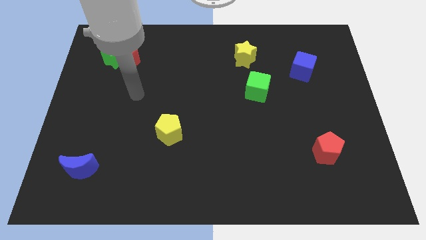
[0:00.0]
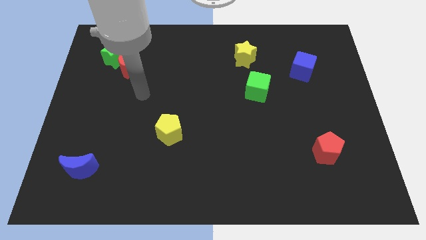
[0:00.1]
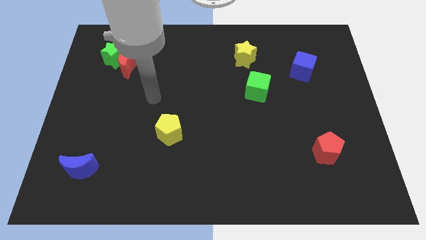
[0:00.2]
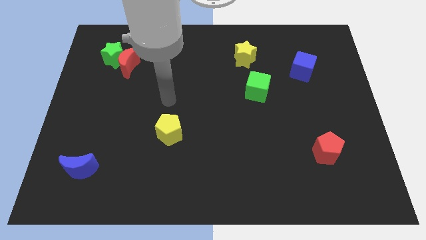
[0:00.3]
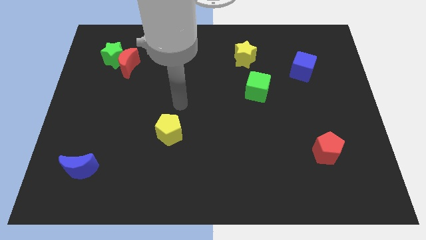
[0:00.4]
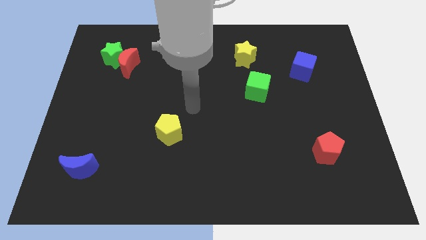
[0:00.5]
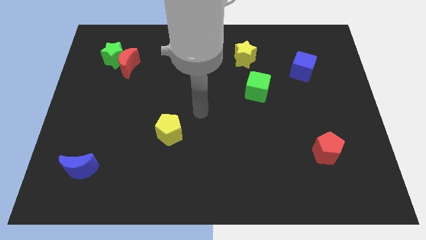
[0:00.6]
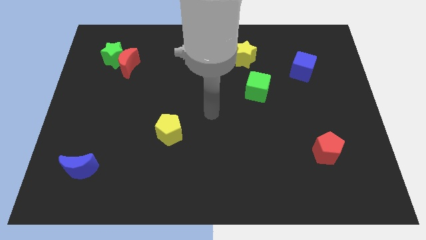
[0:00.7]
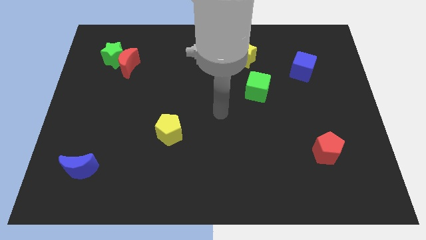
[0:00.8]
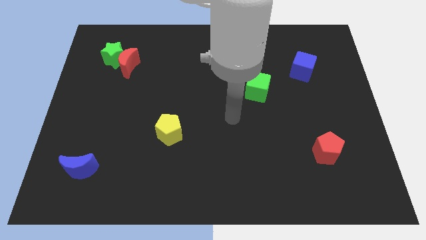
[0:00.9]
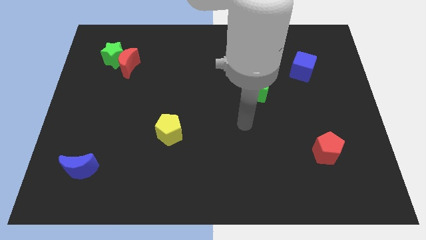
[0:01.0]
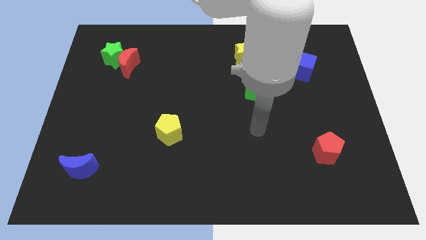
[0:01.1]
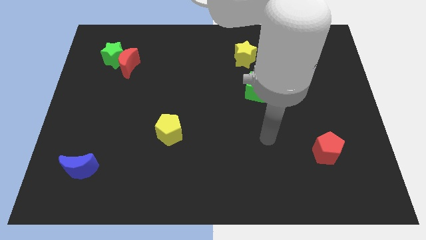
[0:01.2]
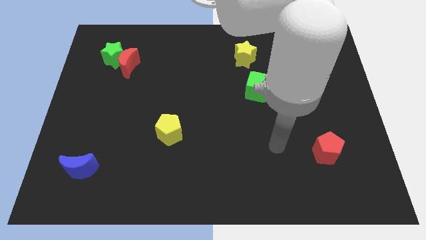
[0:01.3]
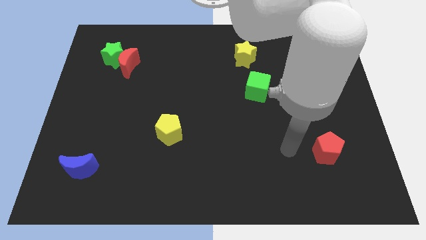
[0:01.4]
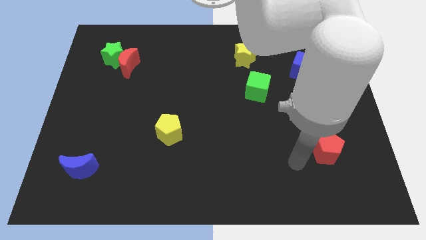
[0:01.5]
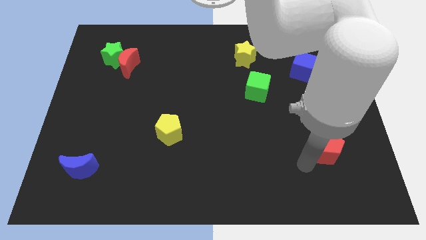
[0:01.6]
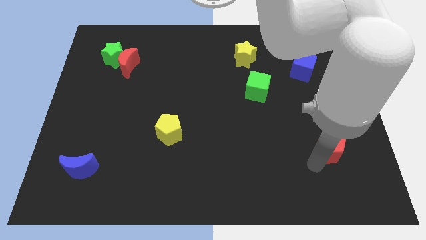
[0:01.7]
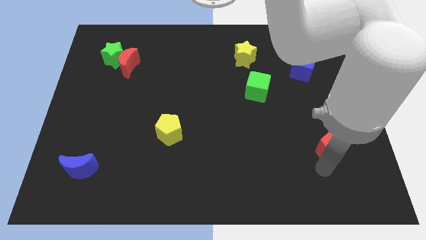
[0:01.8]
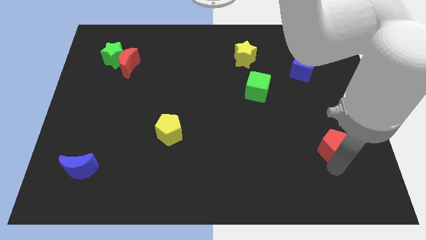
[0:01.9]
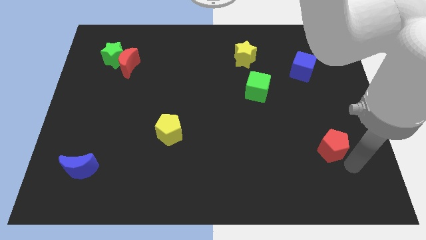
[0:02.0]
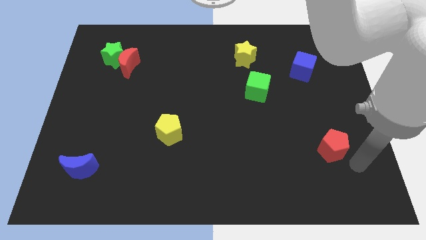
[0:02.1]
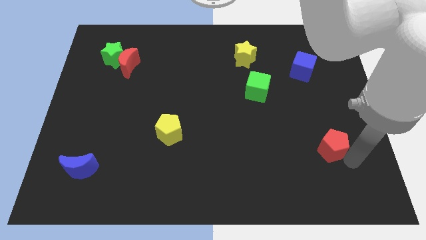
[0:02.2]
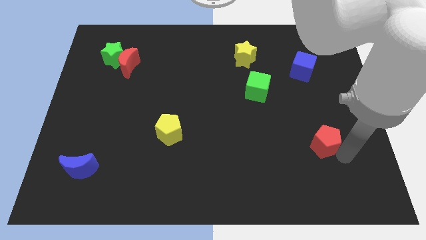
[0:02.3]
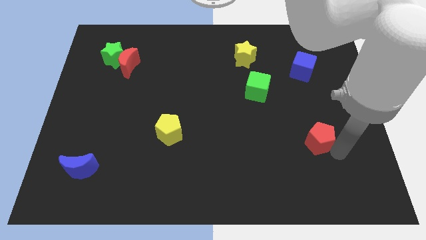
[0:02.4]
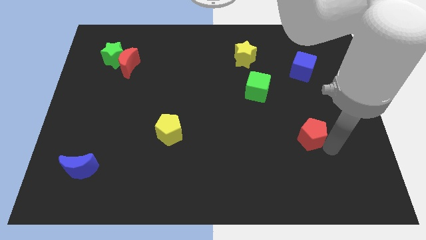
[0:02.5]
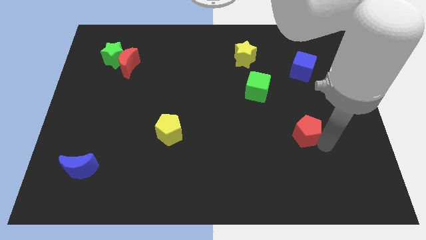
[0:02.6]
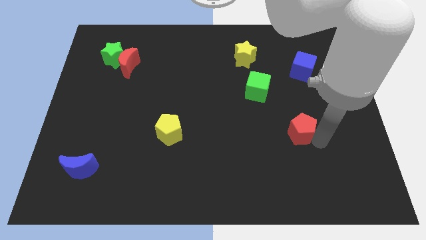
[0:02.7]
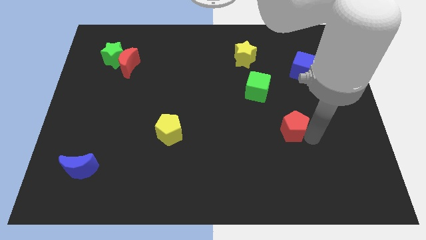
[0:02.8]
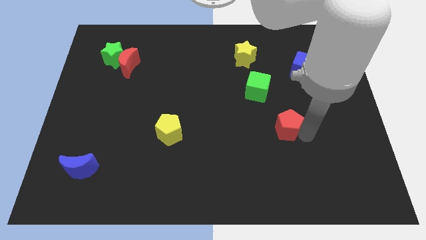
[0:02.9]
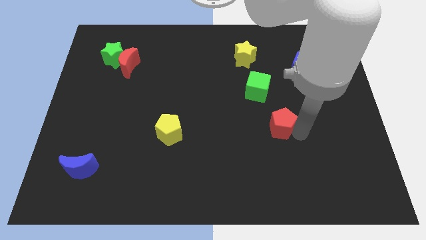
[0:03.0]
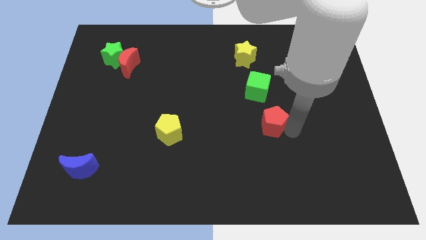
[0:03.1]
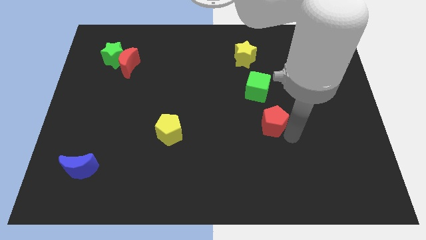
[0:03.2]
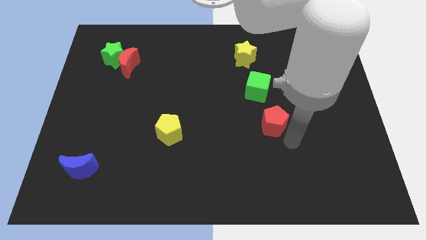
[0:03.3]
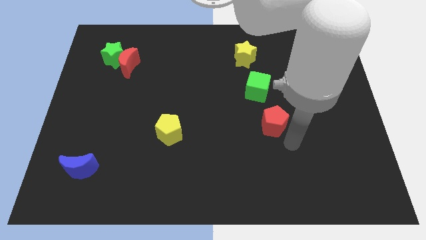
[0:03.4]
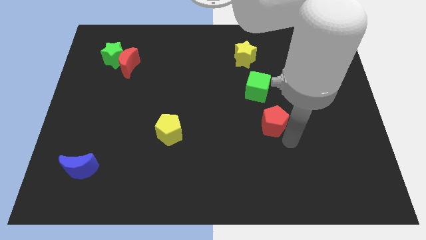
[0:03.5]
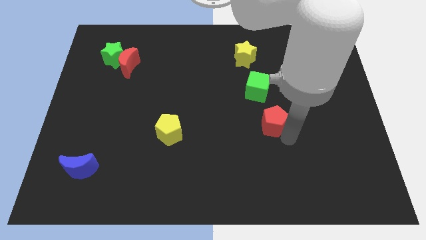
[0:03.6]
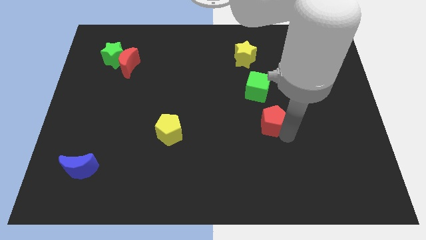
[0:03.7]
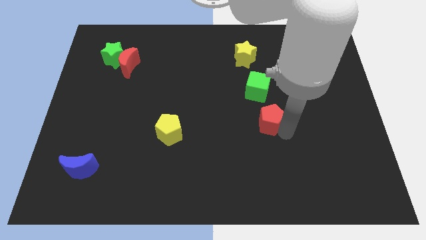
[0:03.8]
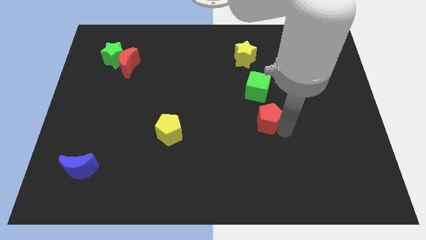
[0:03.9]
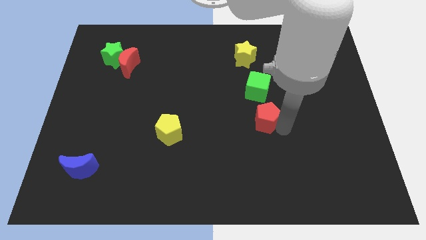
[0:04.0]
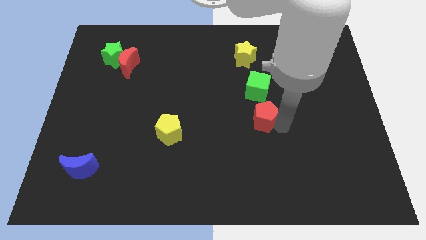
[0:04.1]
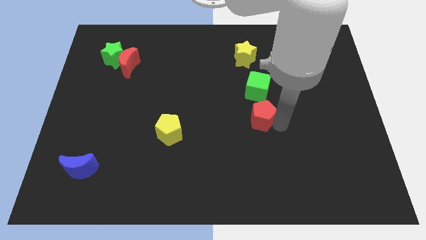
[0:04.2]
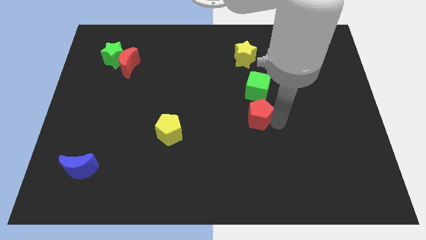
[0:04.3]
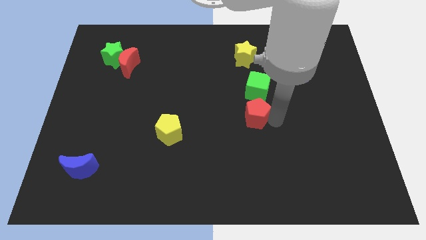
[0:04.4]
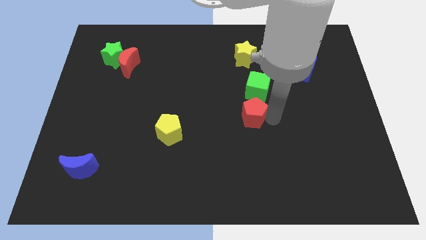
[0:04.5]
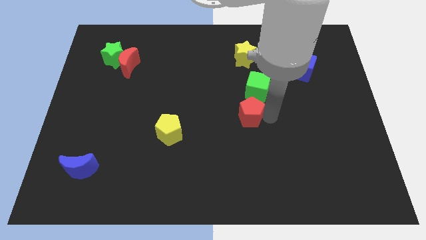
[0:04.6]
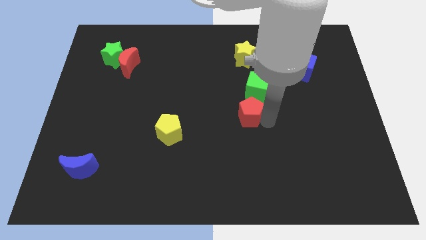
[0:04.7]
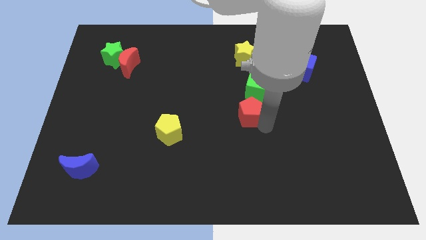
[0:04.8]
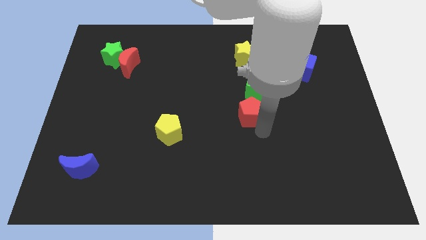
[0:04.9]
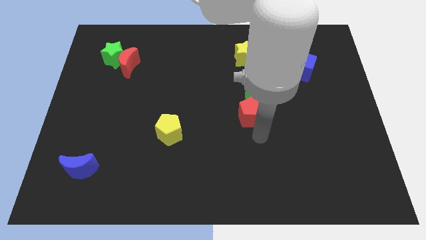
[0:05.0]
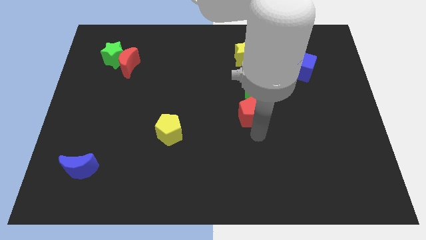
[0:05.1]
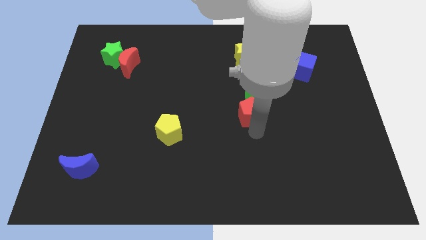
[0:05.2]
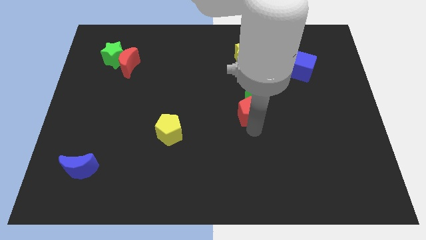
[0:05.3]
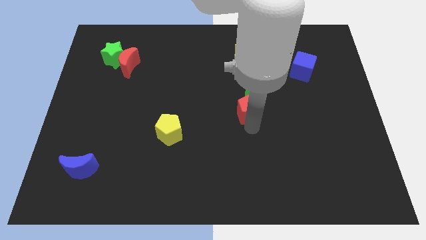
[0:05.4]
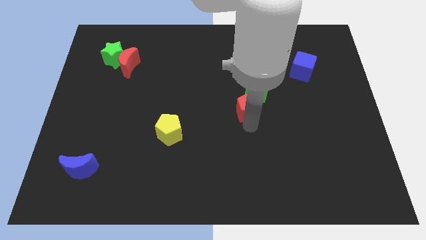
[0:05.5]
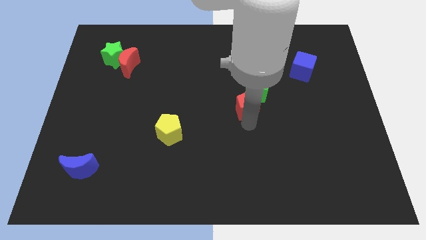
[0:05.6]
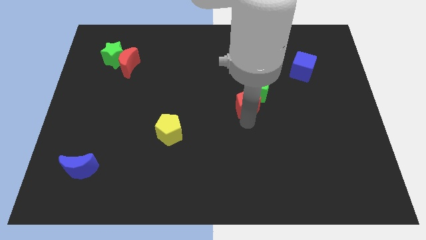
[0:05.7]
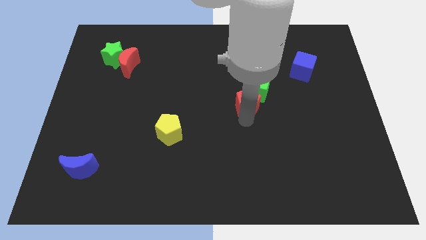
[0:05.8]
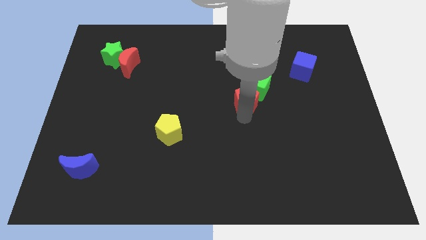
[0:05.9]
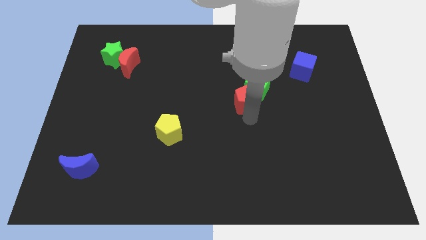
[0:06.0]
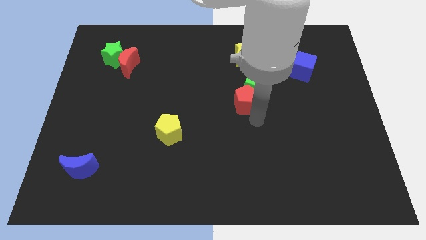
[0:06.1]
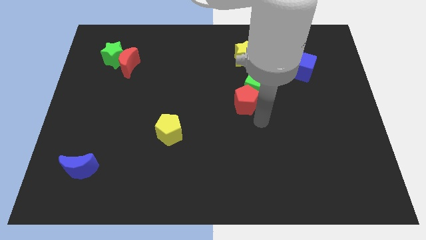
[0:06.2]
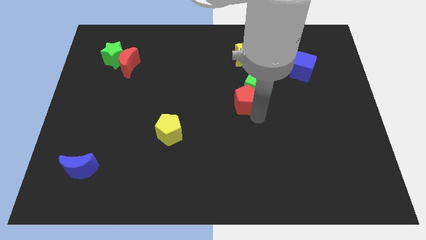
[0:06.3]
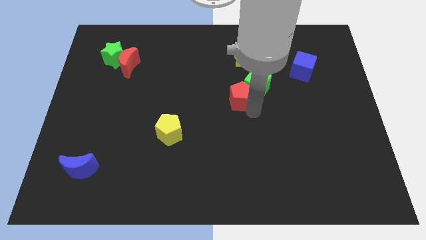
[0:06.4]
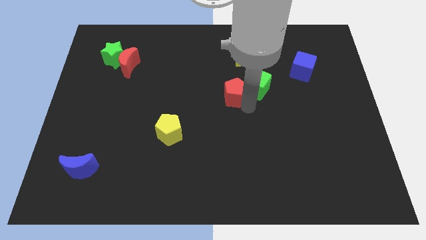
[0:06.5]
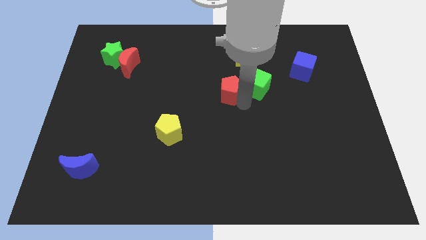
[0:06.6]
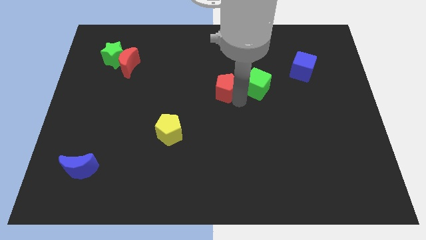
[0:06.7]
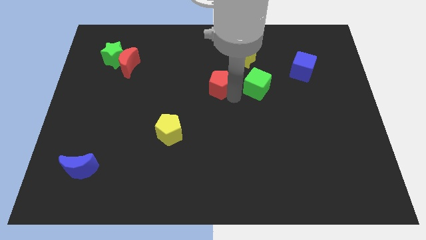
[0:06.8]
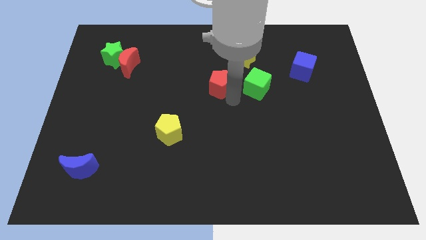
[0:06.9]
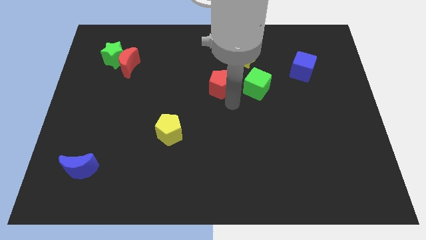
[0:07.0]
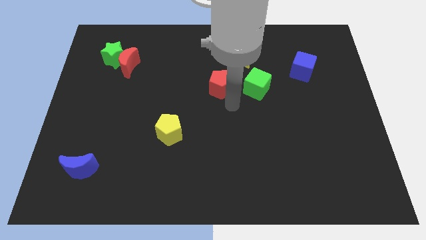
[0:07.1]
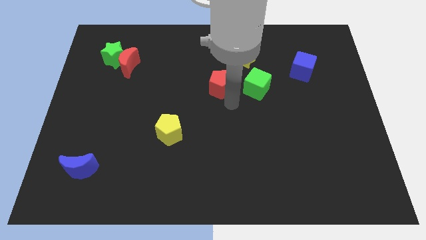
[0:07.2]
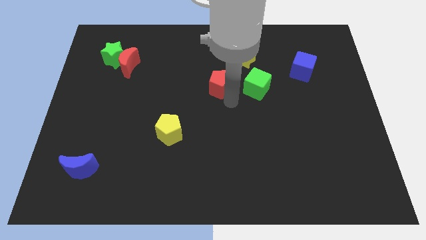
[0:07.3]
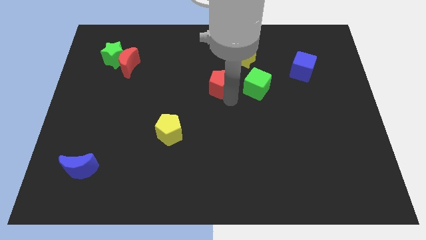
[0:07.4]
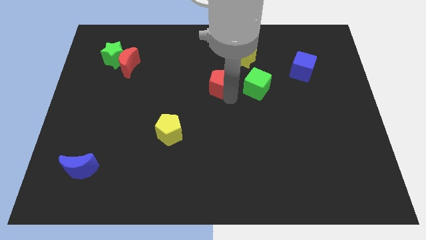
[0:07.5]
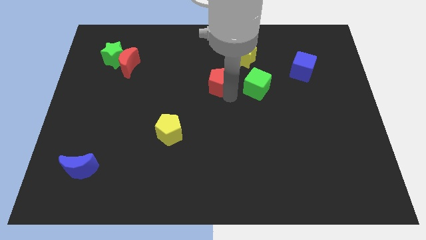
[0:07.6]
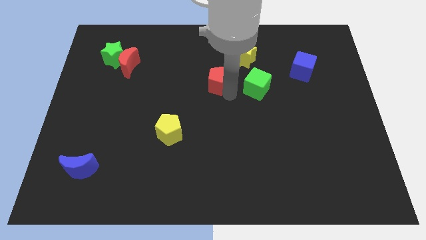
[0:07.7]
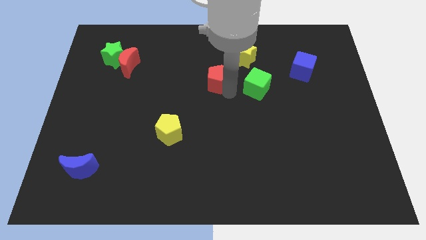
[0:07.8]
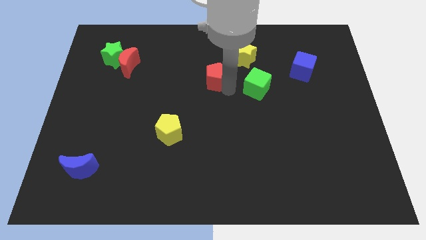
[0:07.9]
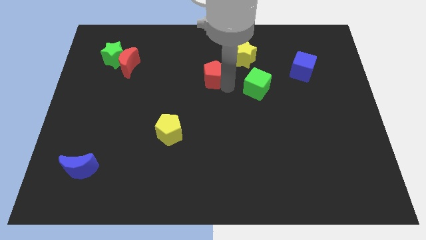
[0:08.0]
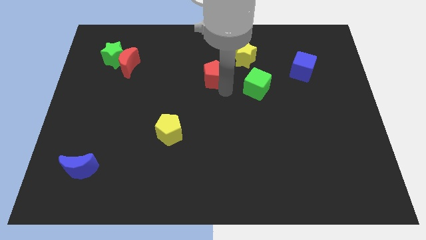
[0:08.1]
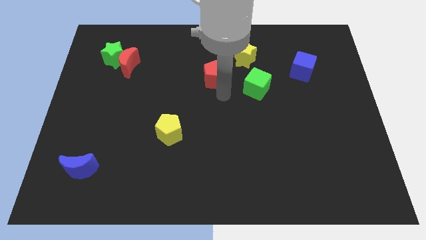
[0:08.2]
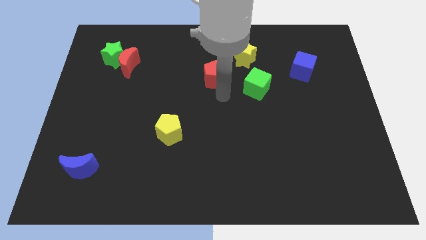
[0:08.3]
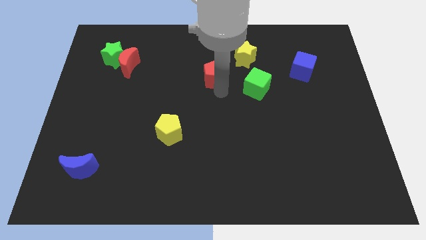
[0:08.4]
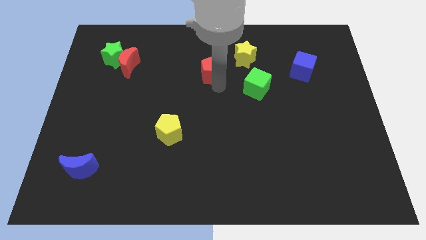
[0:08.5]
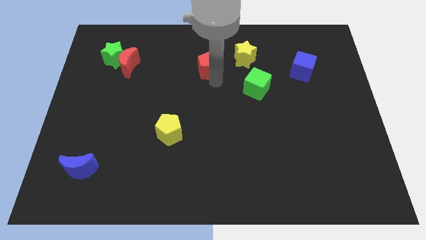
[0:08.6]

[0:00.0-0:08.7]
move the red pentagon to the left side of the yellow star
